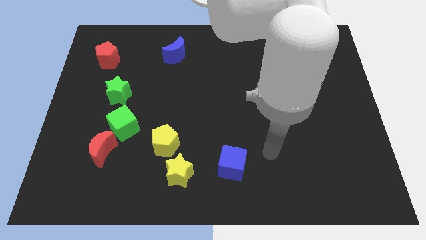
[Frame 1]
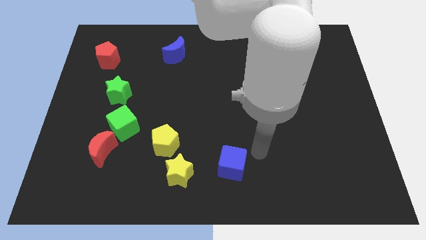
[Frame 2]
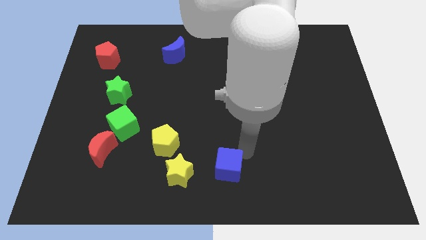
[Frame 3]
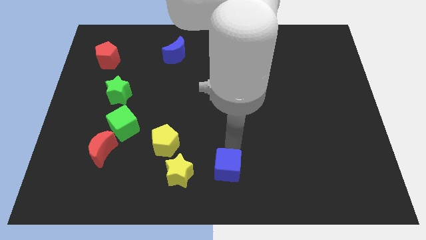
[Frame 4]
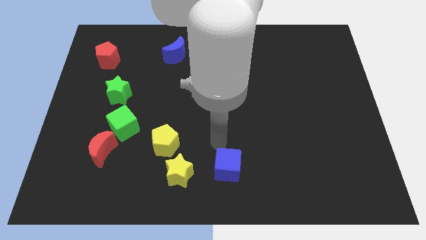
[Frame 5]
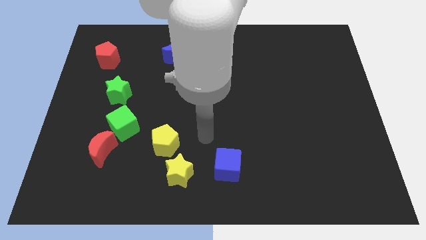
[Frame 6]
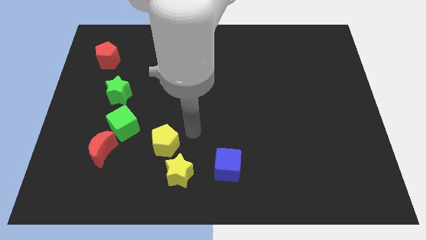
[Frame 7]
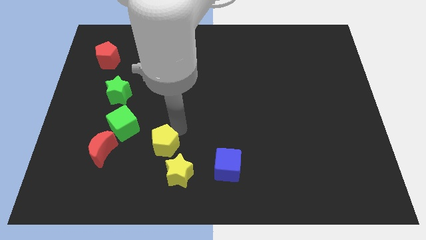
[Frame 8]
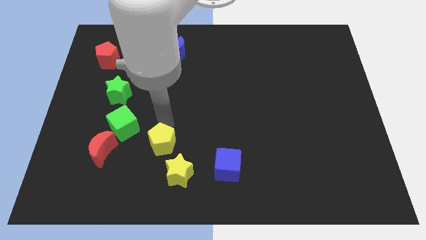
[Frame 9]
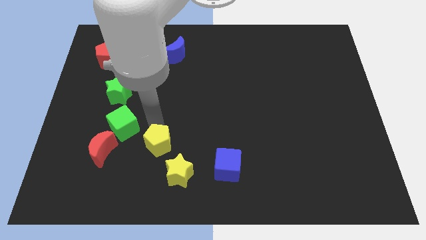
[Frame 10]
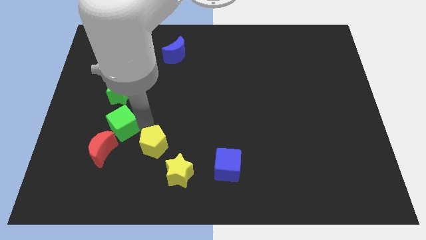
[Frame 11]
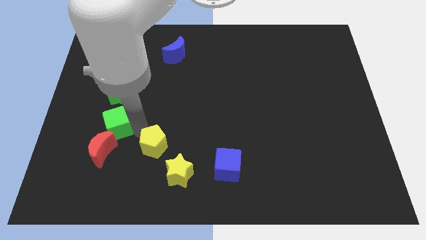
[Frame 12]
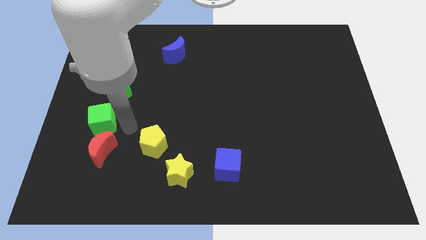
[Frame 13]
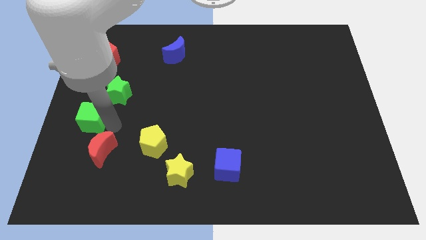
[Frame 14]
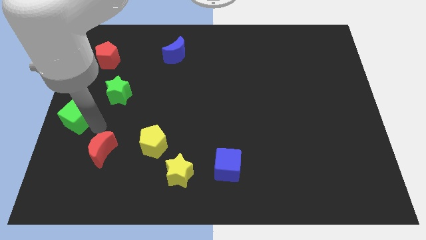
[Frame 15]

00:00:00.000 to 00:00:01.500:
pull the red moon apart from the green cube

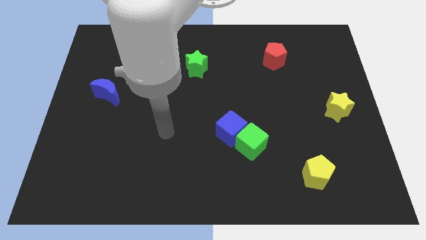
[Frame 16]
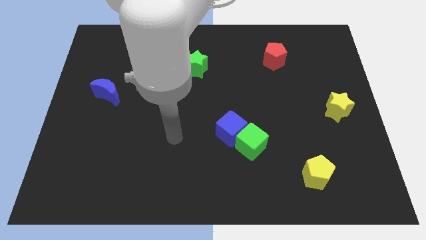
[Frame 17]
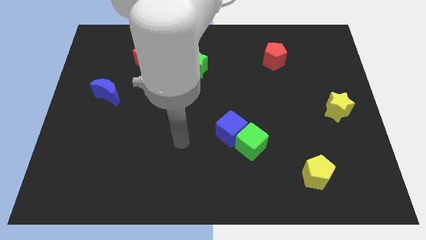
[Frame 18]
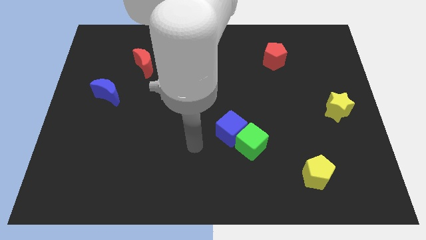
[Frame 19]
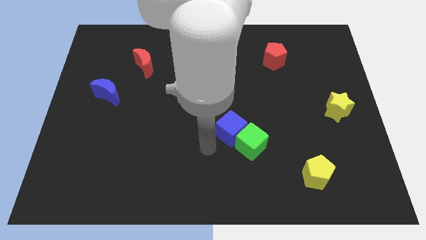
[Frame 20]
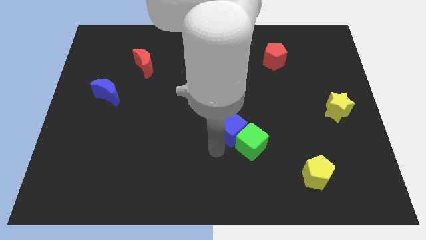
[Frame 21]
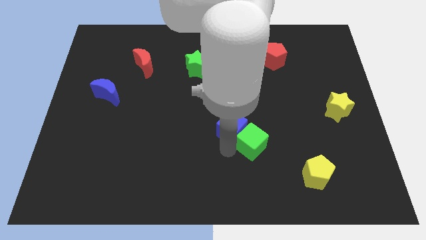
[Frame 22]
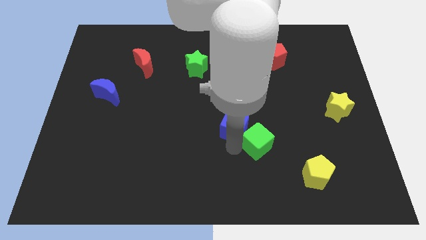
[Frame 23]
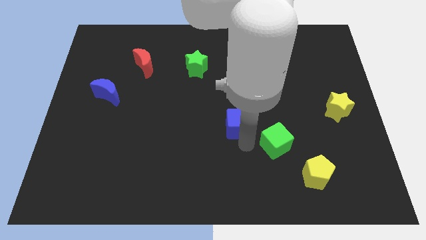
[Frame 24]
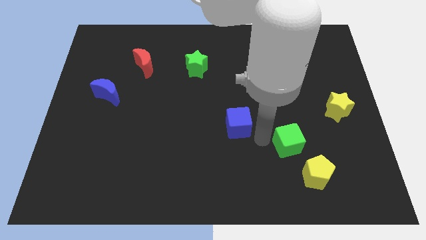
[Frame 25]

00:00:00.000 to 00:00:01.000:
move the blue cube away from the green cube

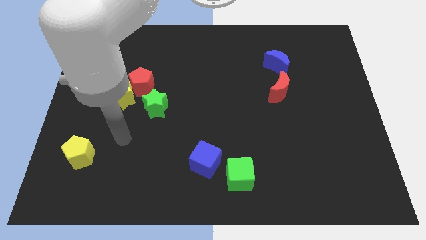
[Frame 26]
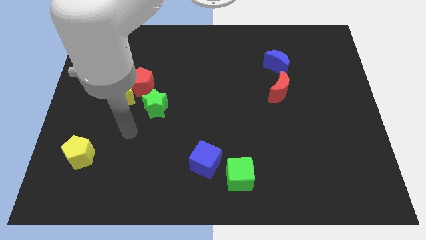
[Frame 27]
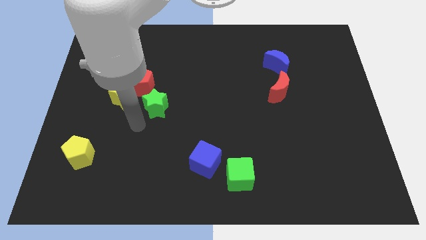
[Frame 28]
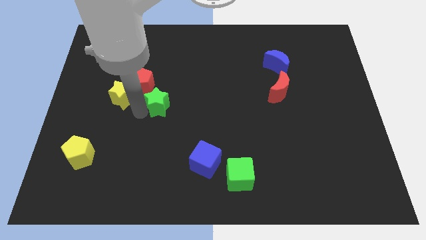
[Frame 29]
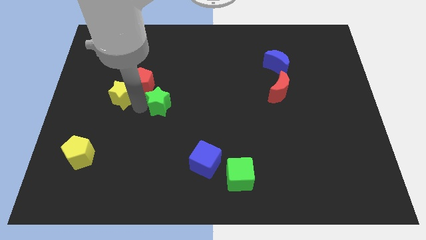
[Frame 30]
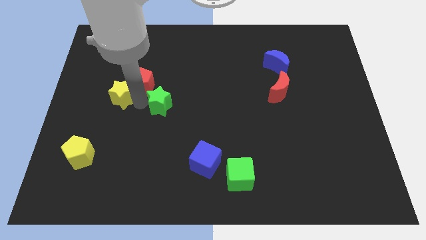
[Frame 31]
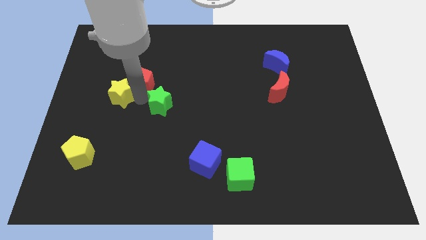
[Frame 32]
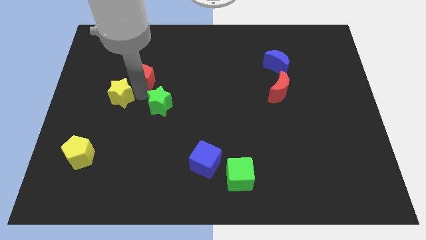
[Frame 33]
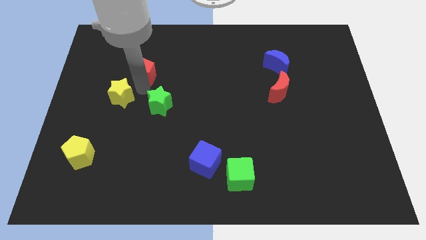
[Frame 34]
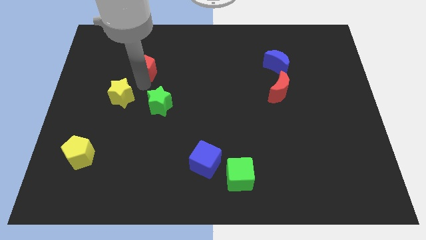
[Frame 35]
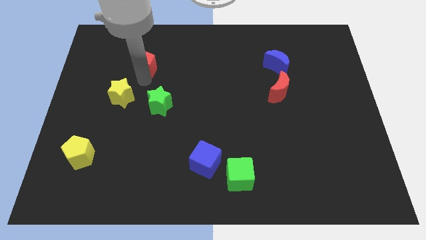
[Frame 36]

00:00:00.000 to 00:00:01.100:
separate the red pentagon from the yellow star and green star

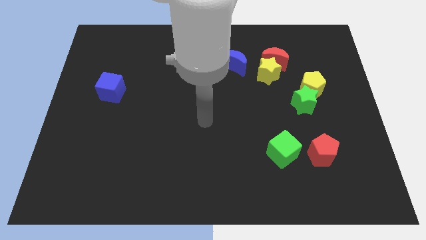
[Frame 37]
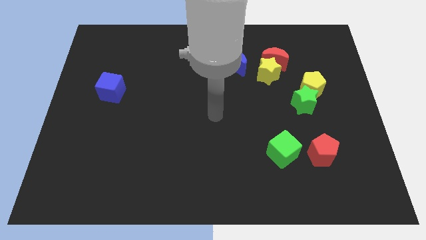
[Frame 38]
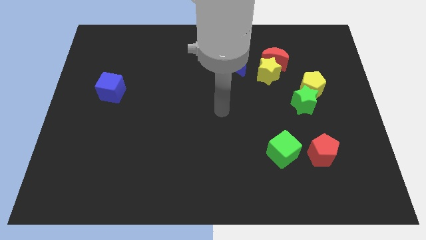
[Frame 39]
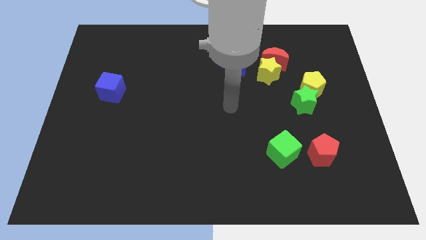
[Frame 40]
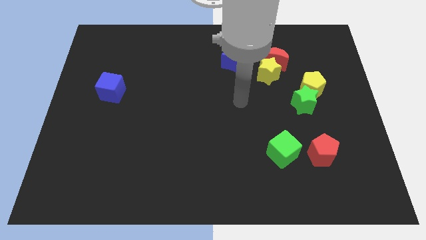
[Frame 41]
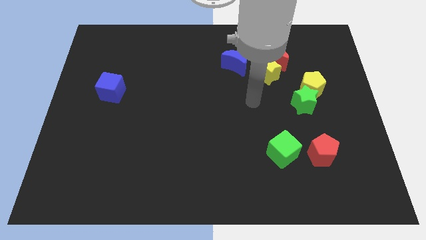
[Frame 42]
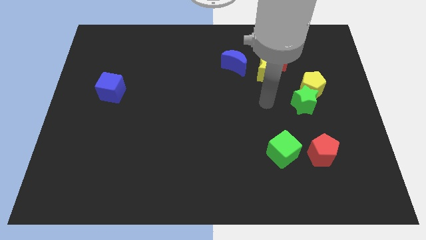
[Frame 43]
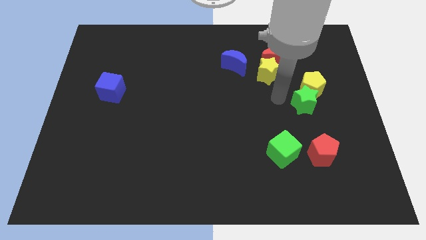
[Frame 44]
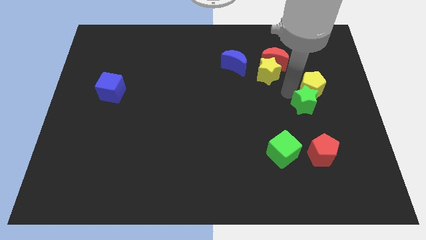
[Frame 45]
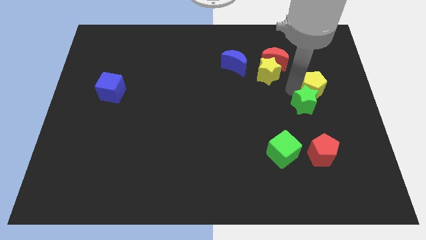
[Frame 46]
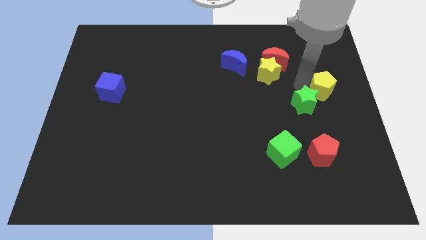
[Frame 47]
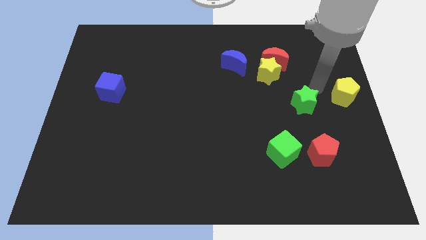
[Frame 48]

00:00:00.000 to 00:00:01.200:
move the green star away from the yellow pentagon

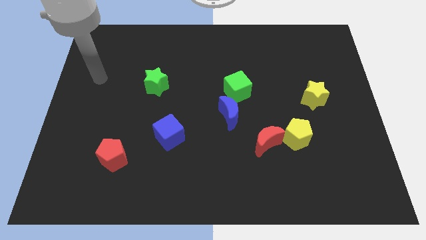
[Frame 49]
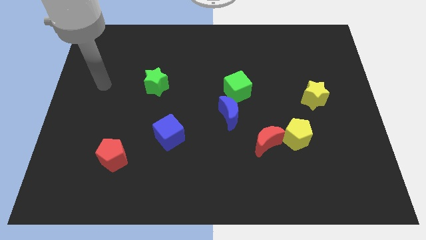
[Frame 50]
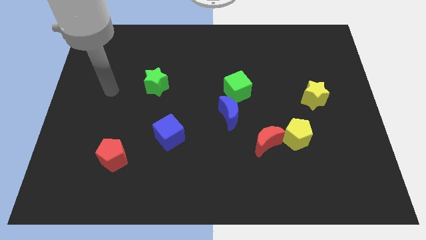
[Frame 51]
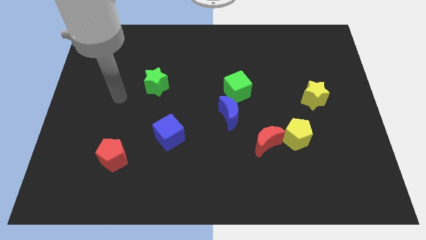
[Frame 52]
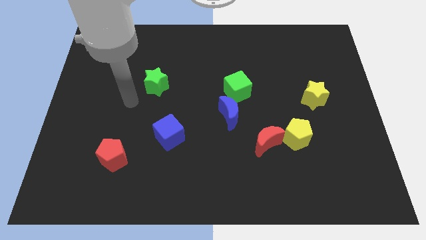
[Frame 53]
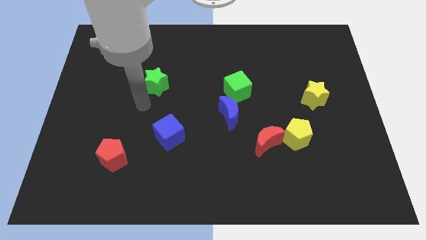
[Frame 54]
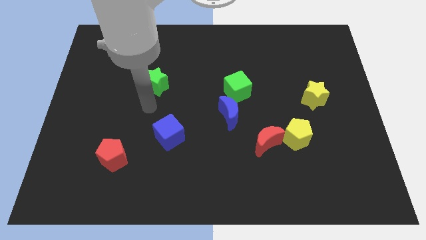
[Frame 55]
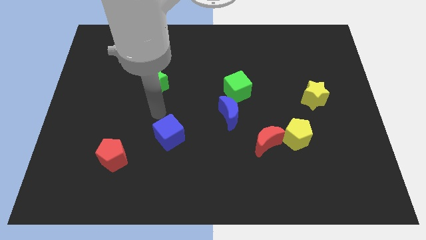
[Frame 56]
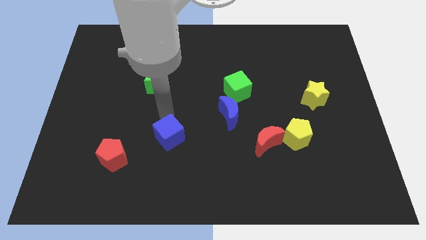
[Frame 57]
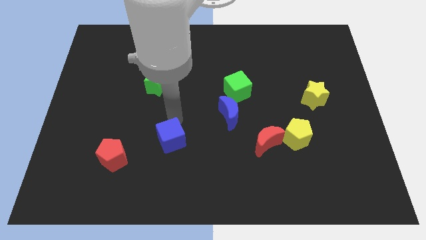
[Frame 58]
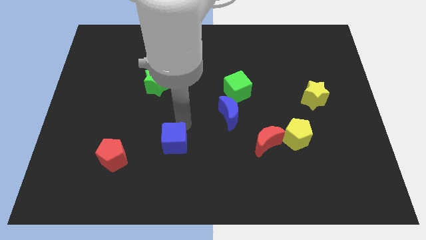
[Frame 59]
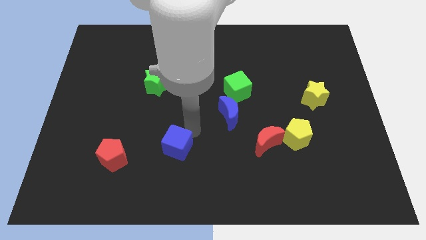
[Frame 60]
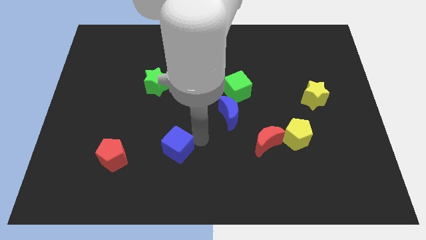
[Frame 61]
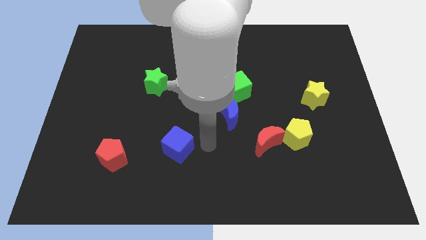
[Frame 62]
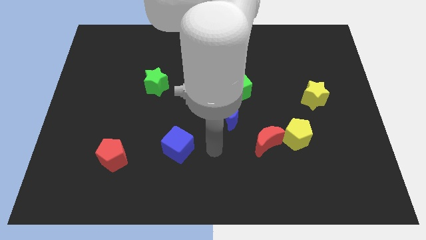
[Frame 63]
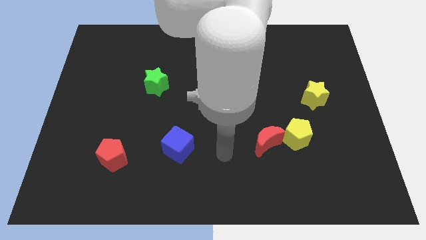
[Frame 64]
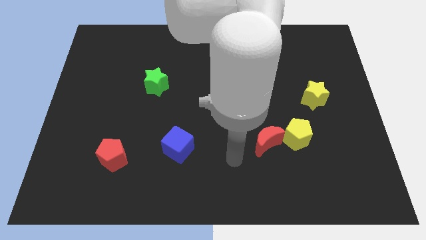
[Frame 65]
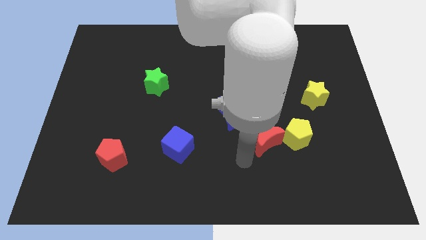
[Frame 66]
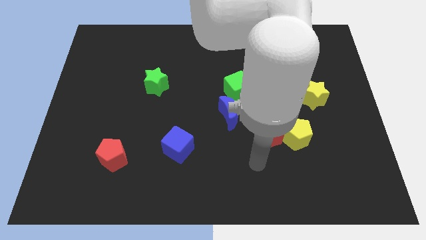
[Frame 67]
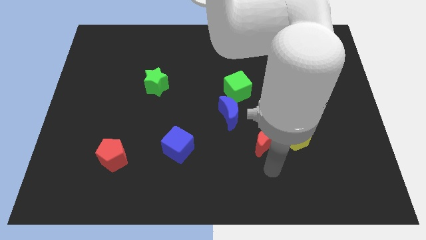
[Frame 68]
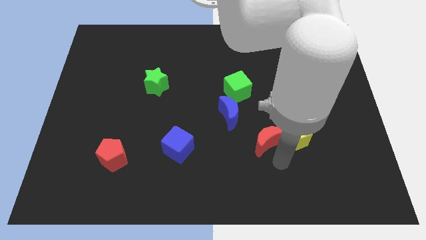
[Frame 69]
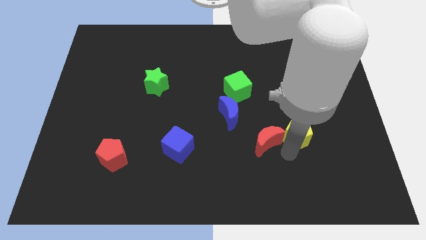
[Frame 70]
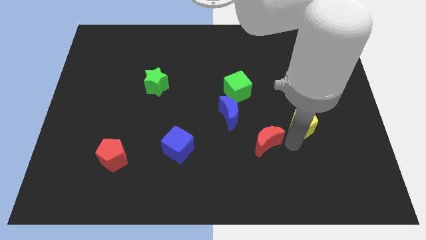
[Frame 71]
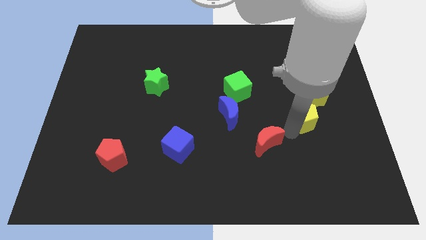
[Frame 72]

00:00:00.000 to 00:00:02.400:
move the red moon away from the yellow pentagon

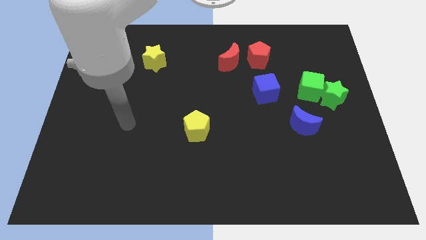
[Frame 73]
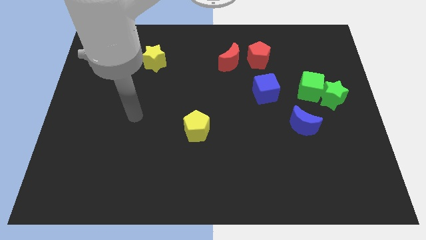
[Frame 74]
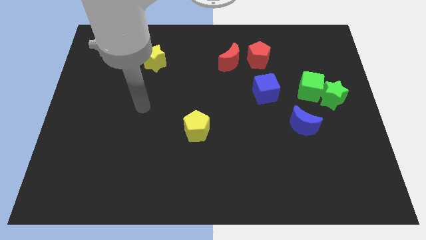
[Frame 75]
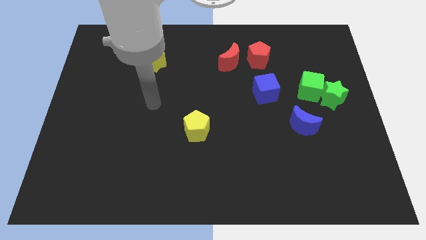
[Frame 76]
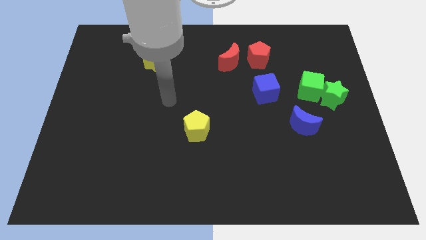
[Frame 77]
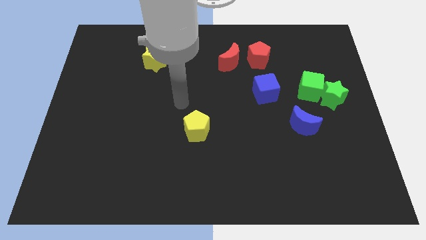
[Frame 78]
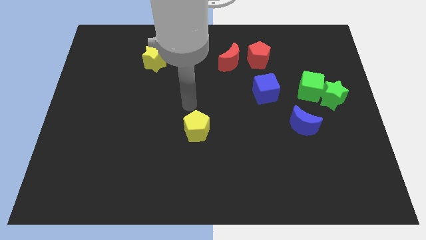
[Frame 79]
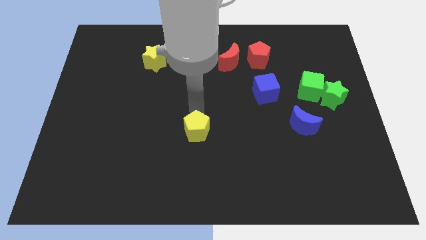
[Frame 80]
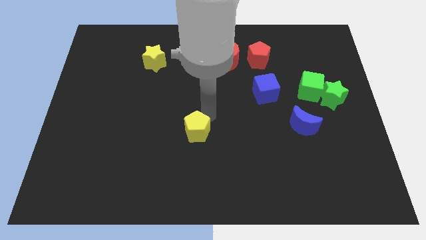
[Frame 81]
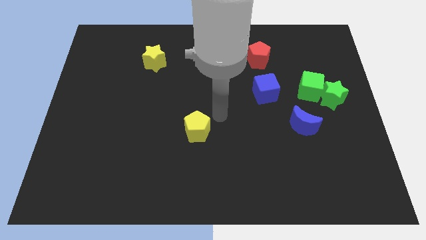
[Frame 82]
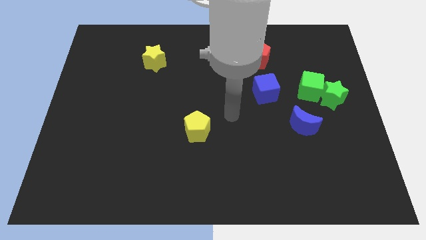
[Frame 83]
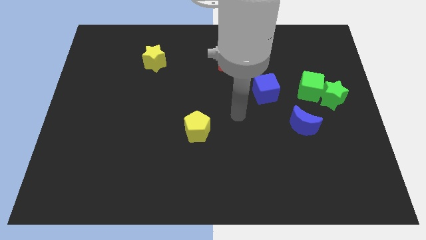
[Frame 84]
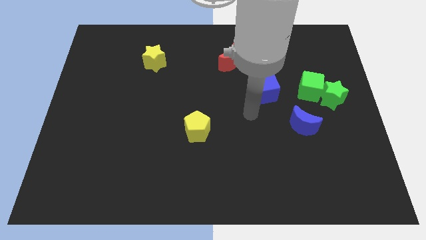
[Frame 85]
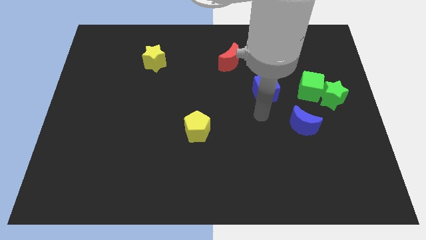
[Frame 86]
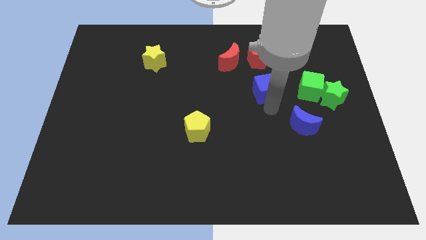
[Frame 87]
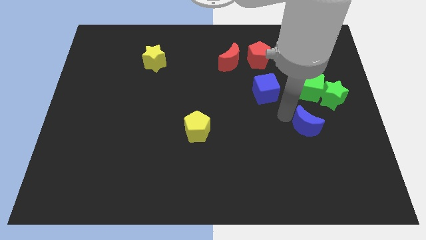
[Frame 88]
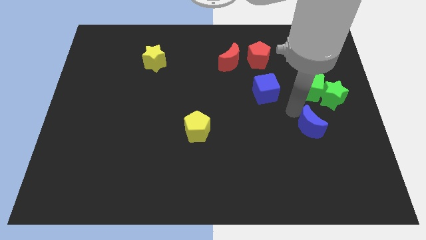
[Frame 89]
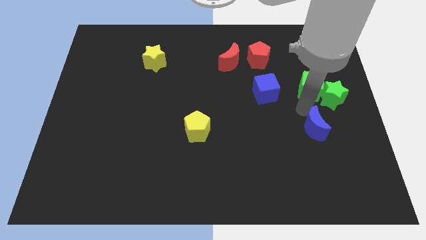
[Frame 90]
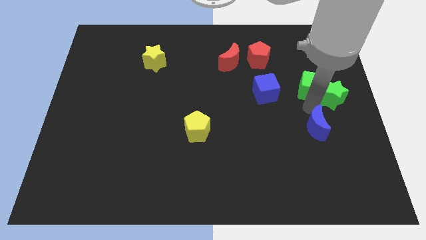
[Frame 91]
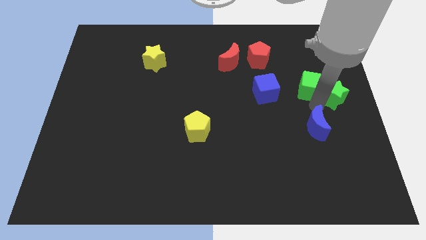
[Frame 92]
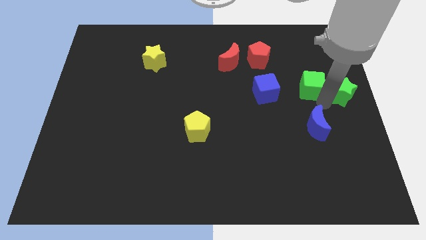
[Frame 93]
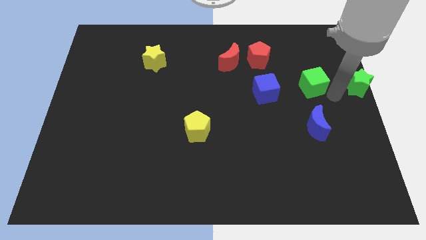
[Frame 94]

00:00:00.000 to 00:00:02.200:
move the green cube away from the green star

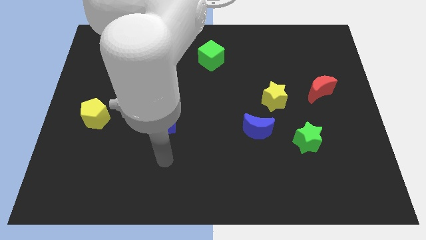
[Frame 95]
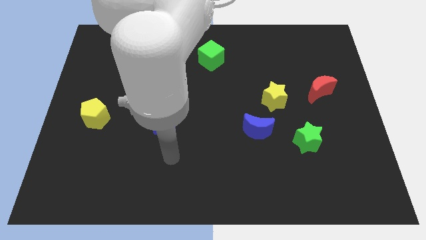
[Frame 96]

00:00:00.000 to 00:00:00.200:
pull the blue moon apart from the yellow star
